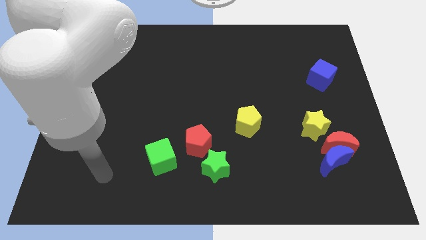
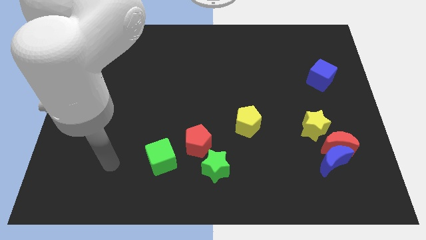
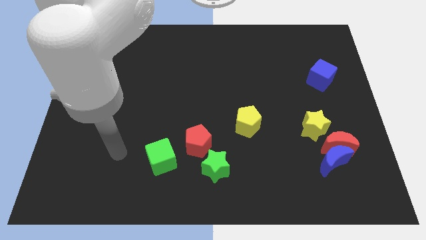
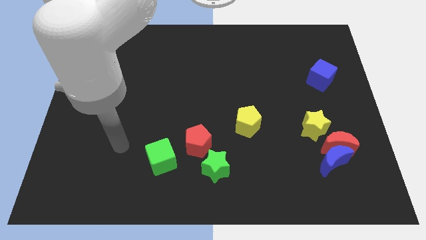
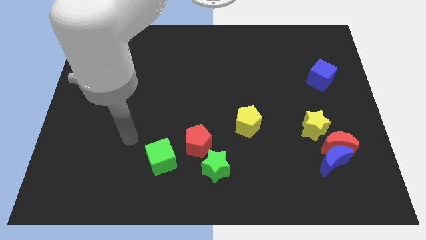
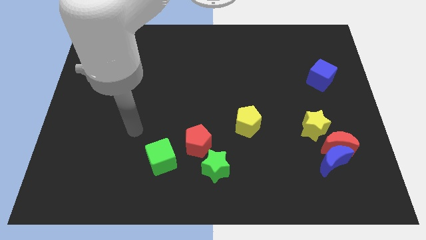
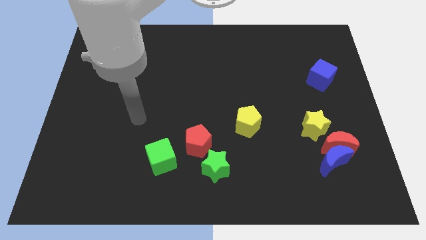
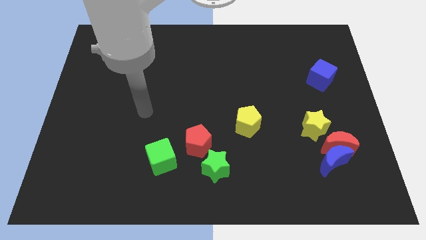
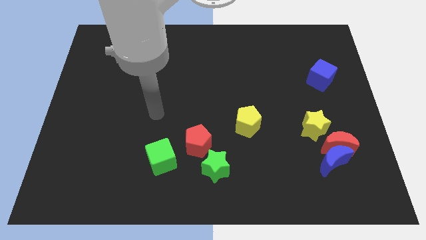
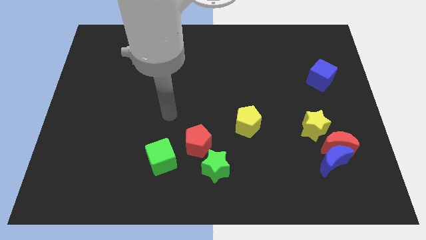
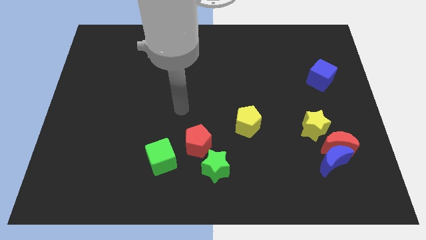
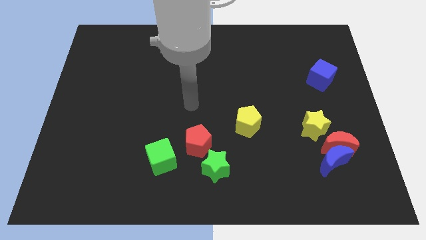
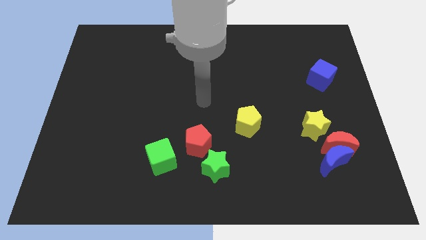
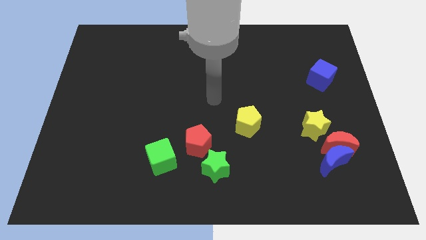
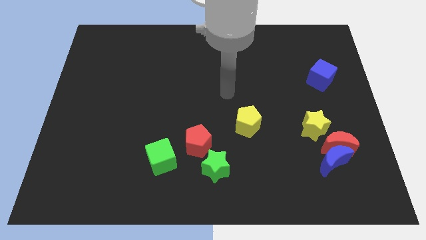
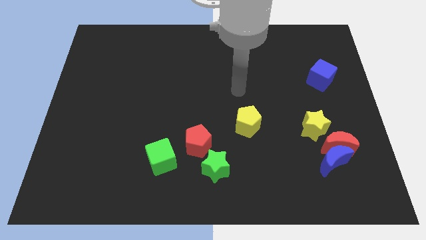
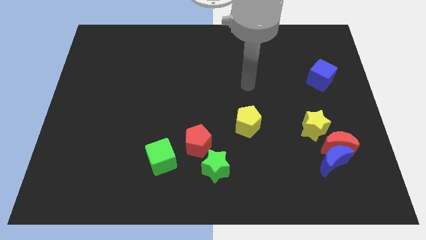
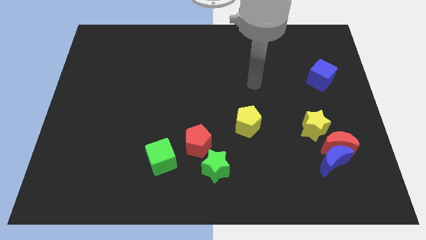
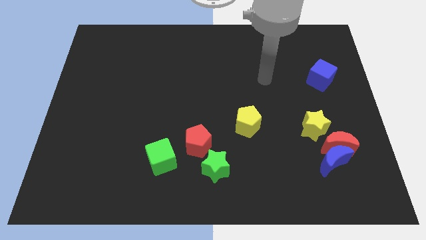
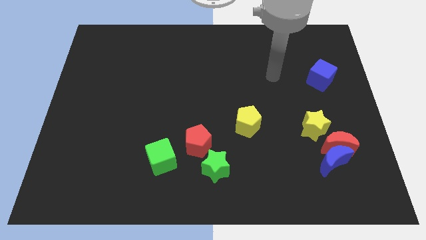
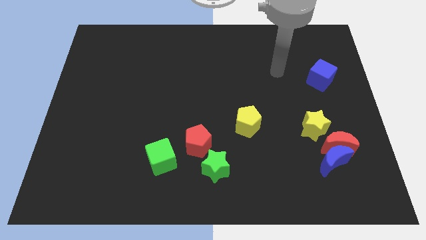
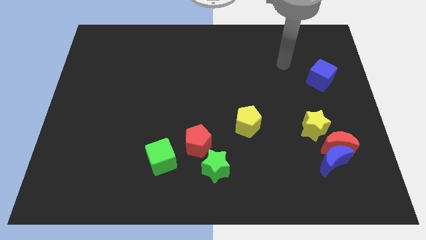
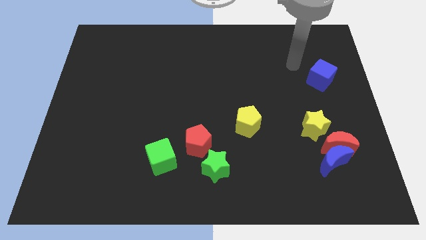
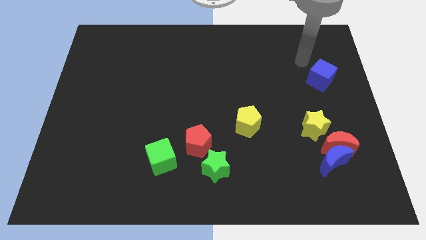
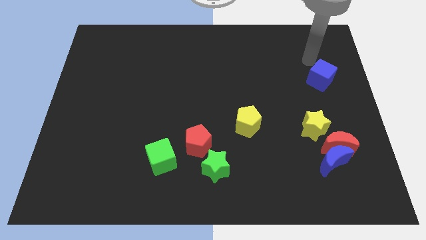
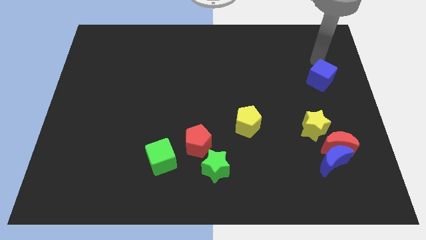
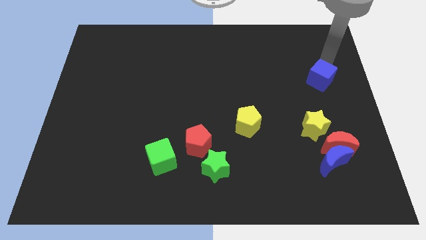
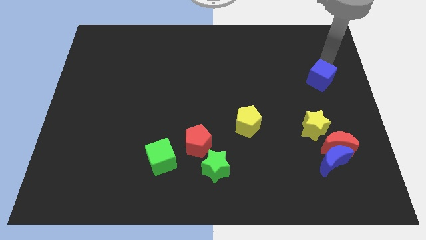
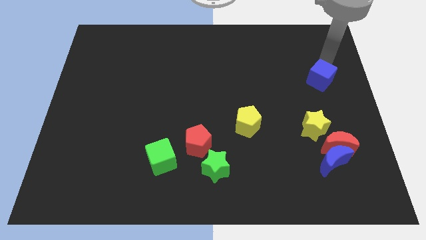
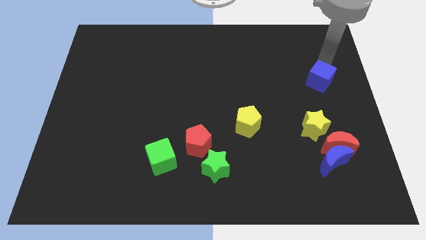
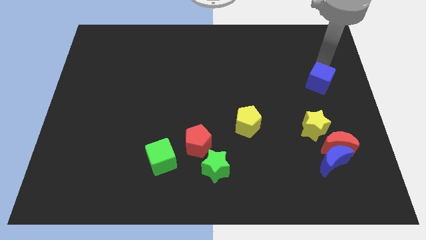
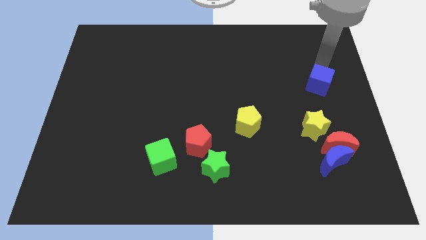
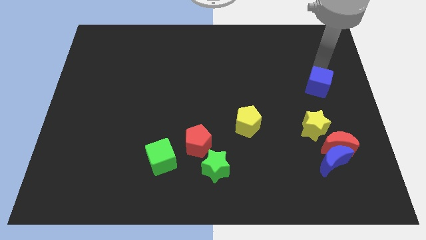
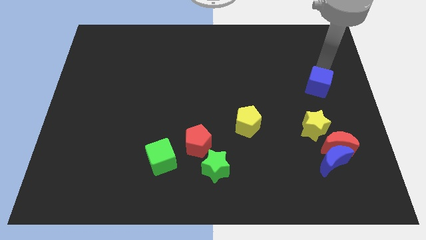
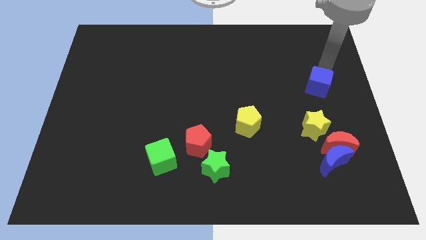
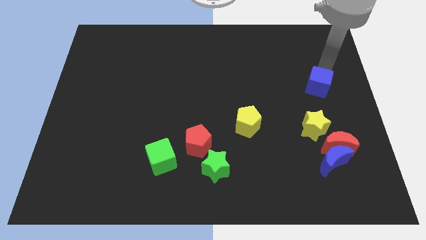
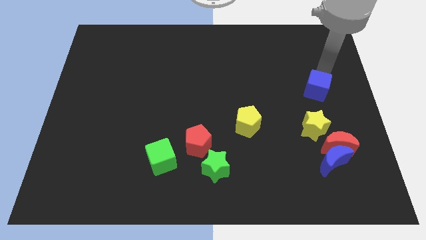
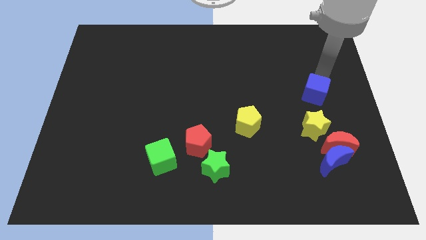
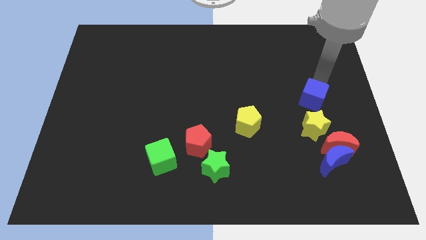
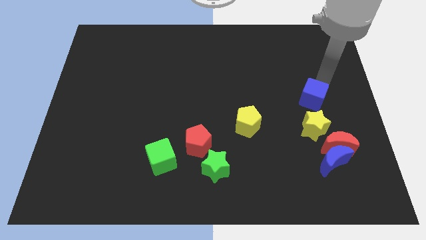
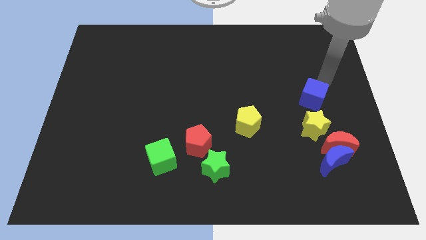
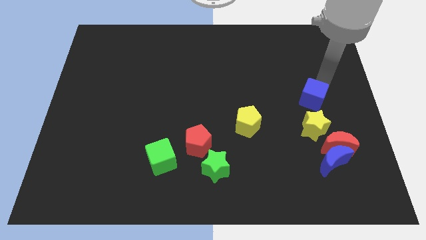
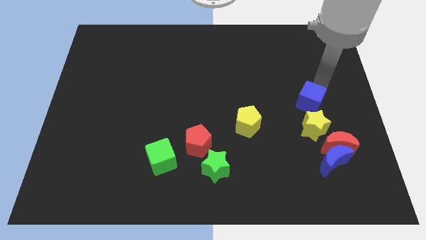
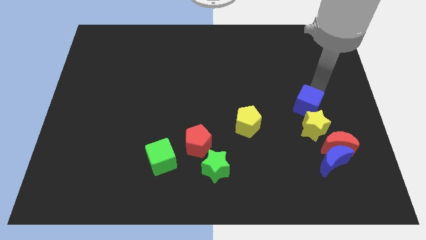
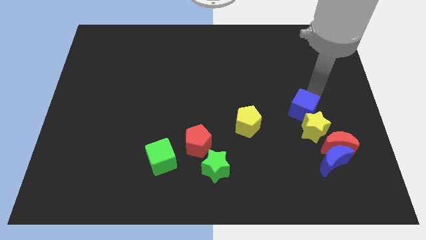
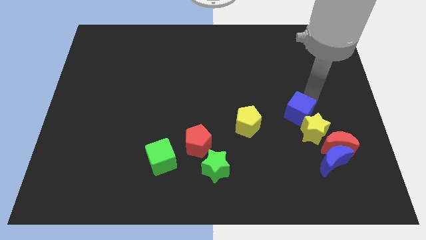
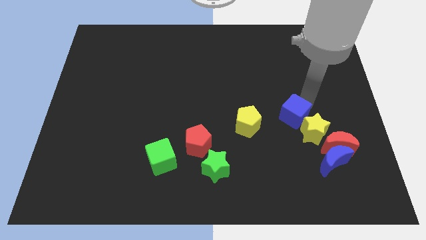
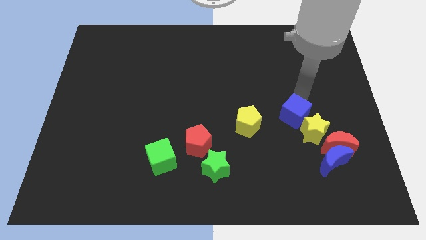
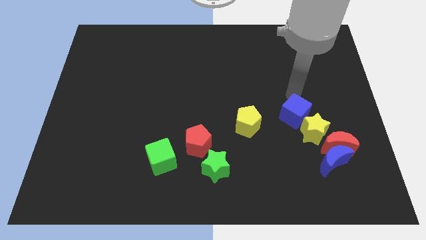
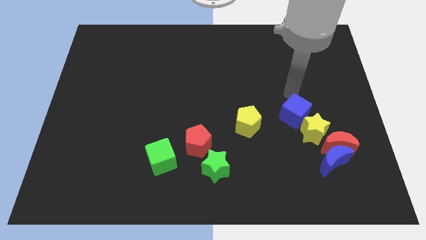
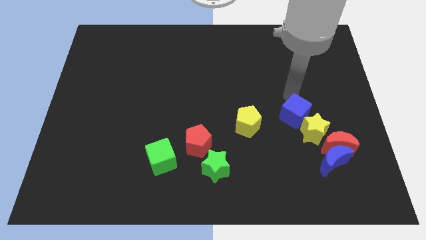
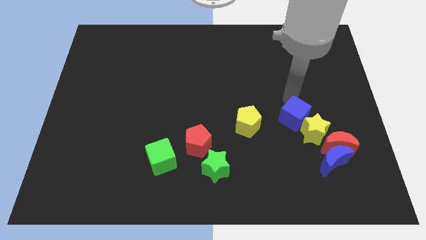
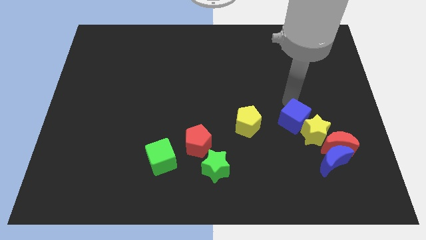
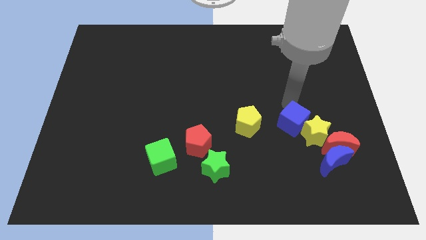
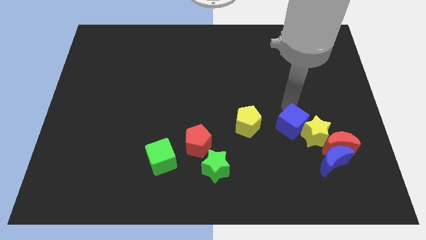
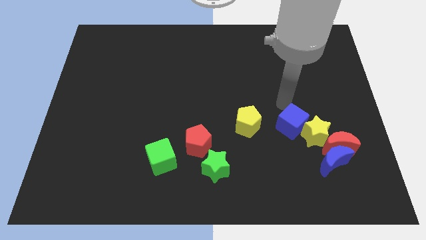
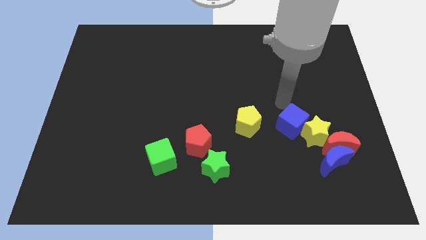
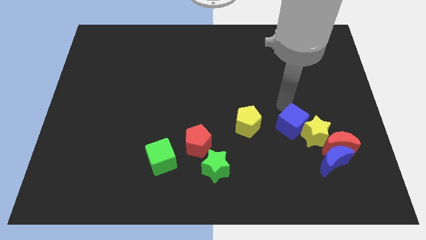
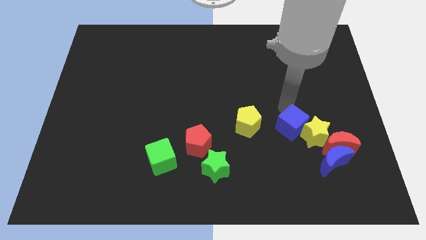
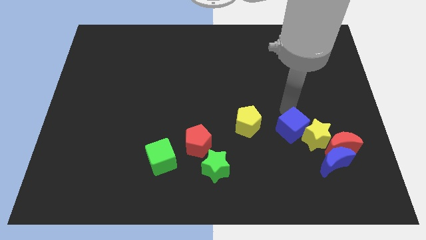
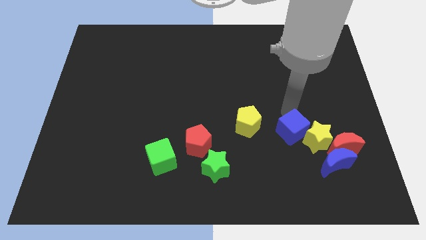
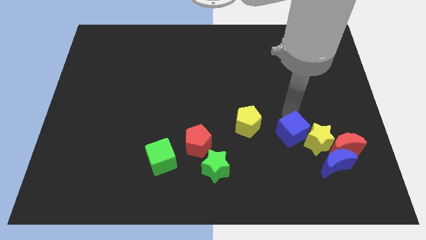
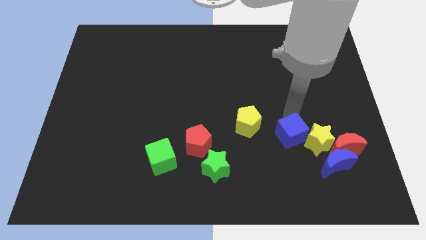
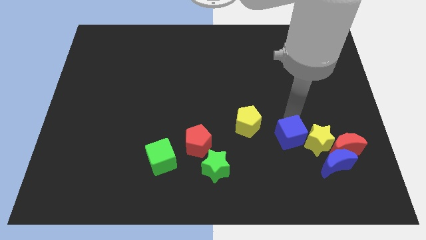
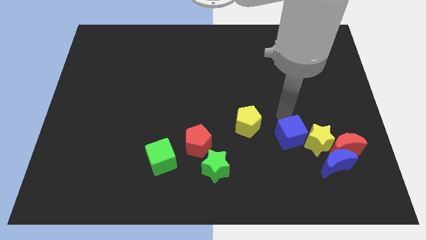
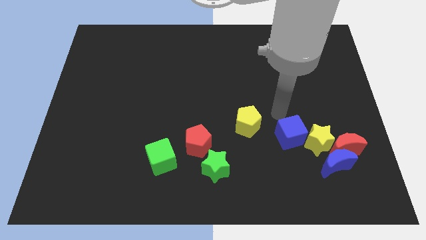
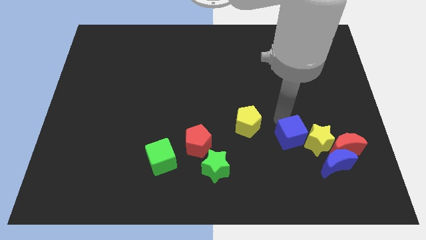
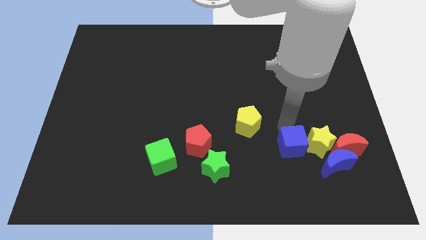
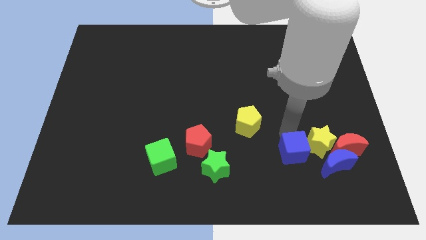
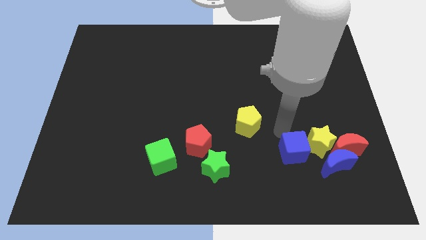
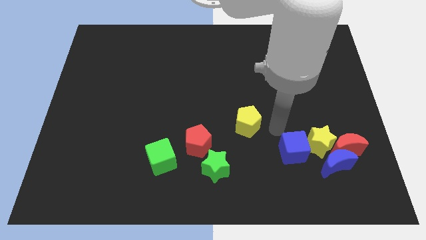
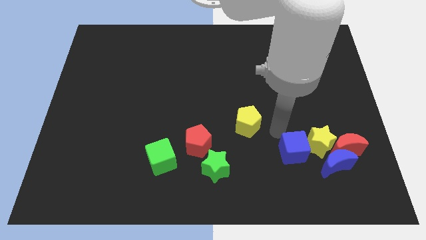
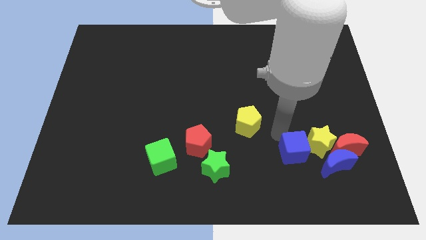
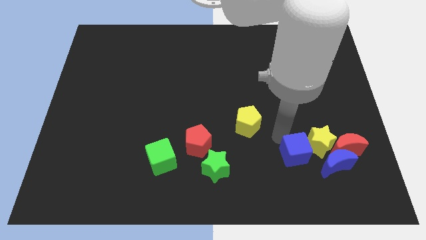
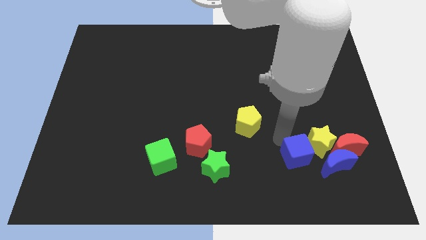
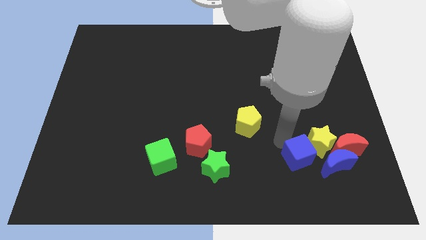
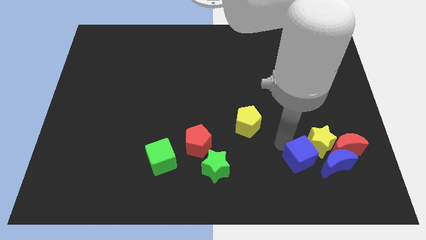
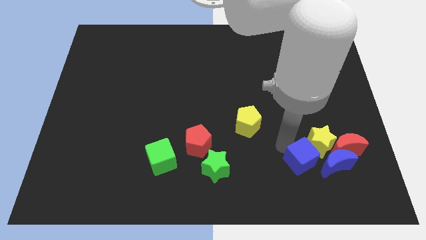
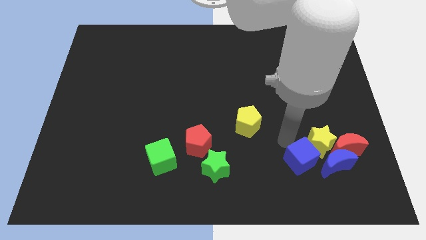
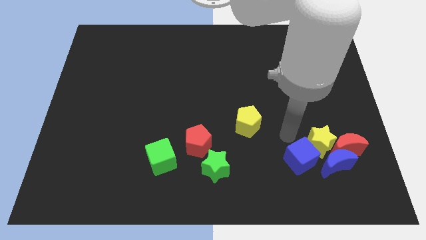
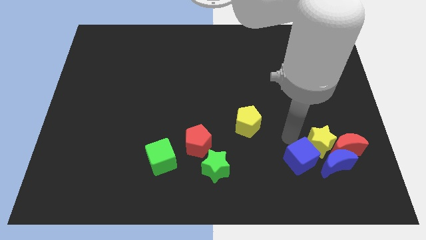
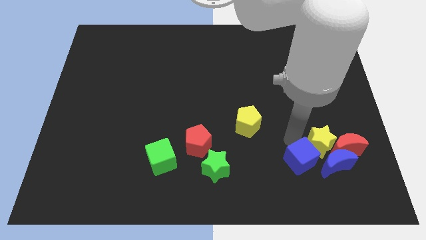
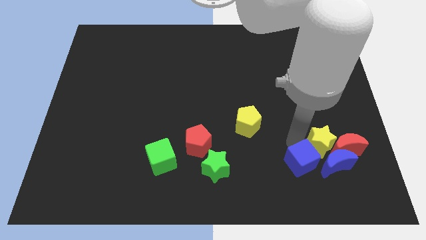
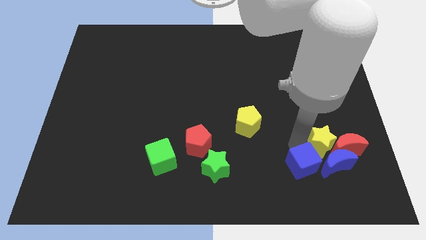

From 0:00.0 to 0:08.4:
put the blue cube to the bottom left of the blue moon

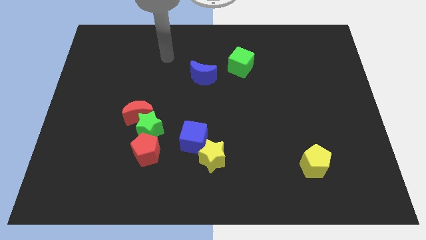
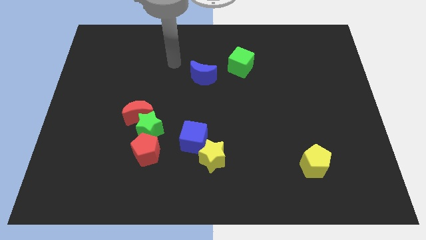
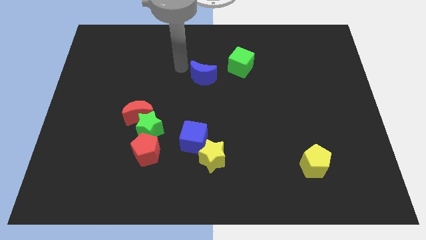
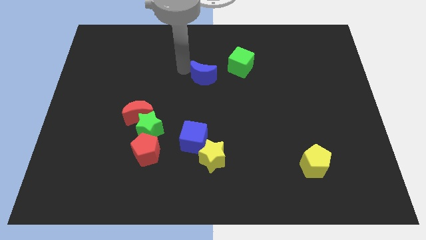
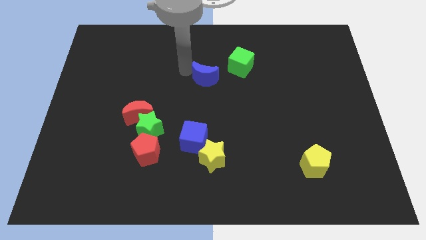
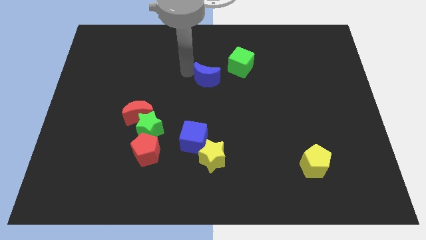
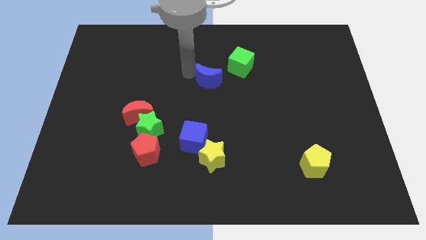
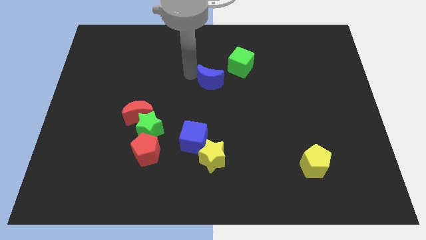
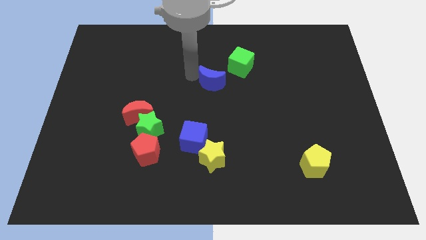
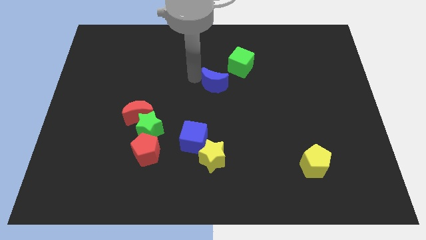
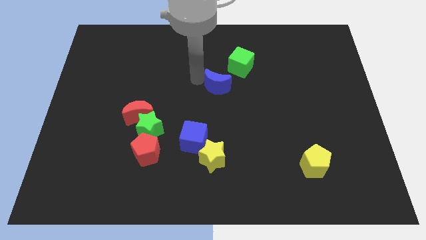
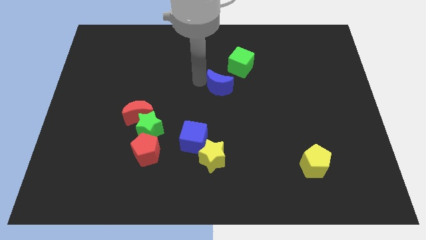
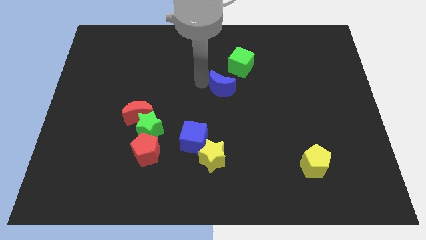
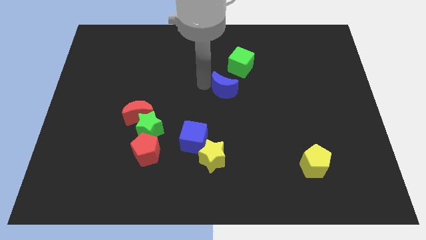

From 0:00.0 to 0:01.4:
put the blue moon to the bottom side of the green cube
